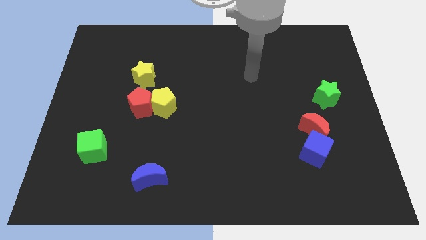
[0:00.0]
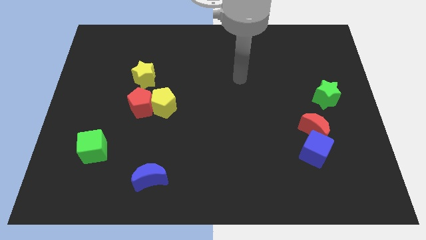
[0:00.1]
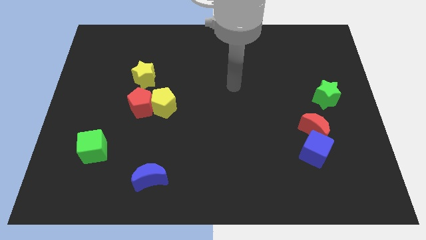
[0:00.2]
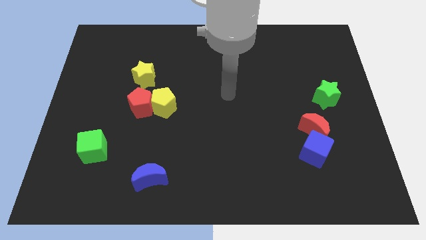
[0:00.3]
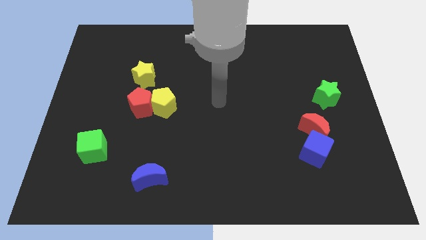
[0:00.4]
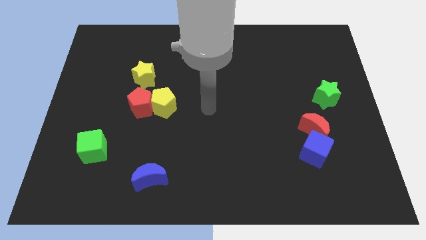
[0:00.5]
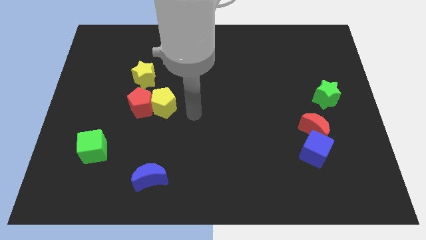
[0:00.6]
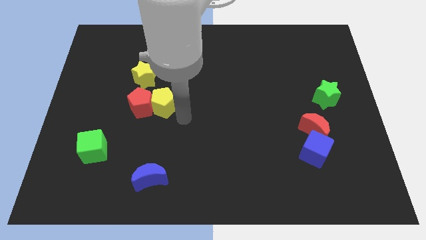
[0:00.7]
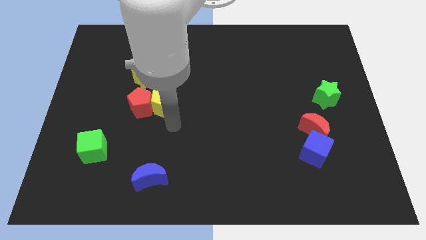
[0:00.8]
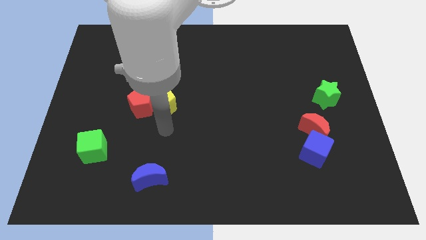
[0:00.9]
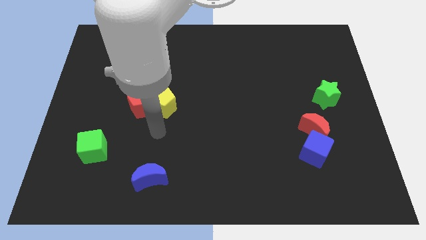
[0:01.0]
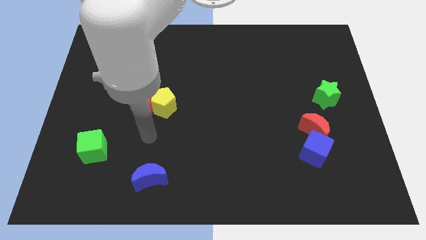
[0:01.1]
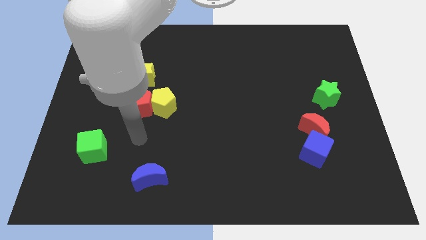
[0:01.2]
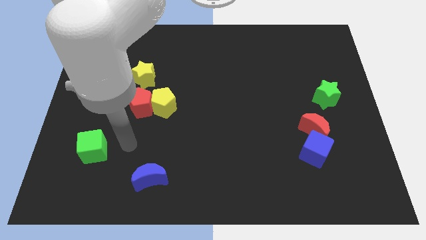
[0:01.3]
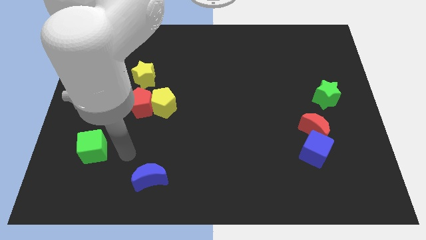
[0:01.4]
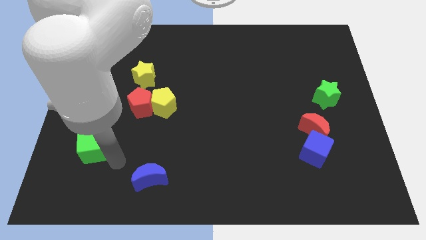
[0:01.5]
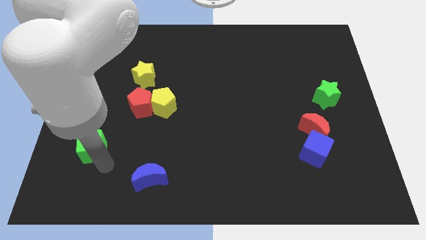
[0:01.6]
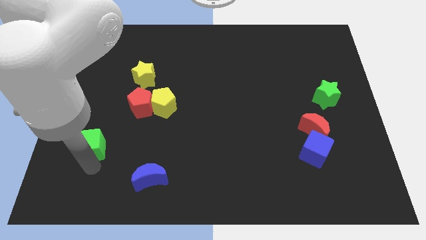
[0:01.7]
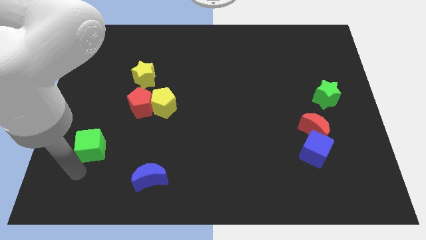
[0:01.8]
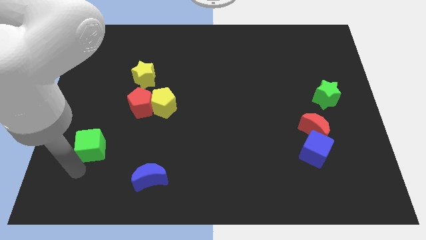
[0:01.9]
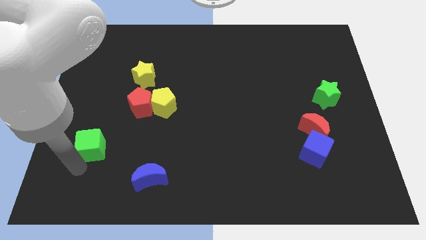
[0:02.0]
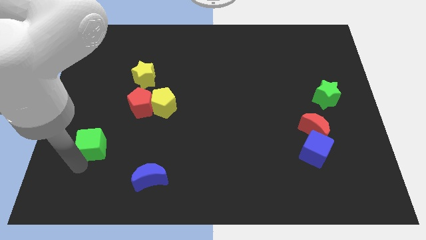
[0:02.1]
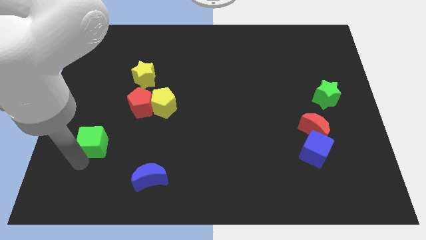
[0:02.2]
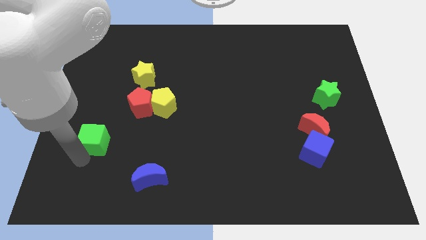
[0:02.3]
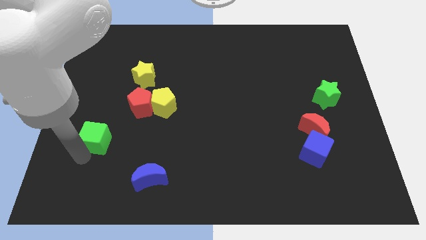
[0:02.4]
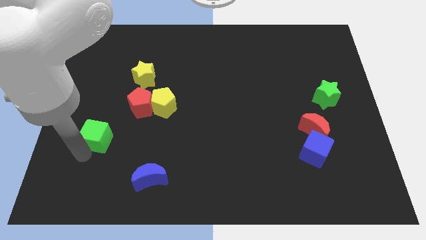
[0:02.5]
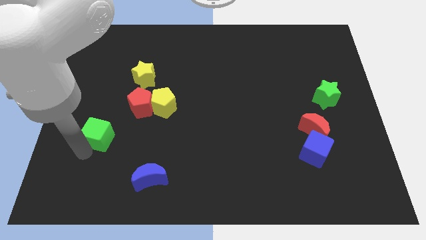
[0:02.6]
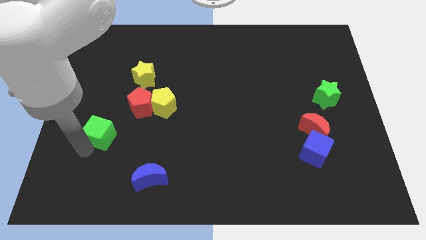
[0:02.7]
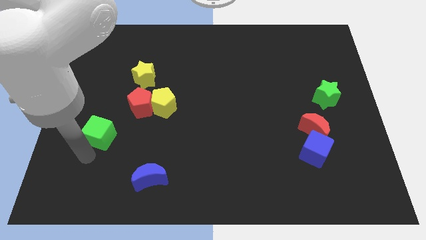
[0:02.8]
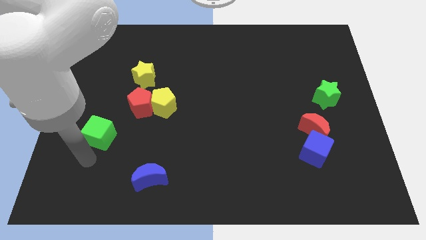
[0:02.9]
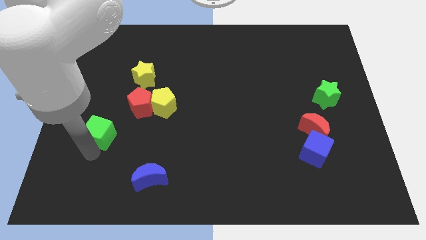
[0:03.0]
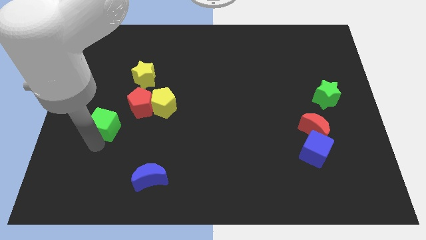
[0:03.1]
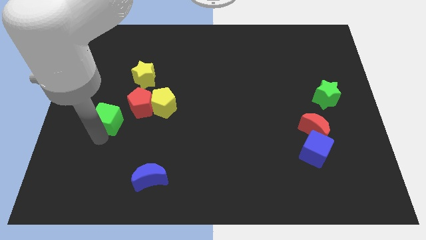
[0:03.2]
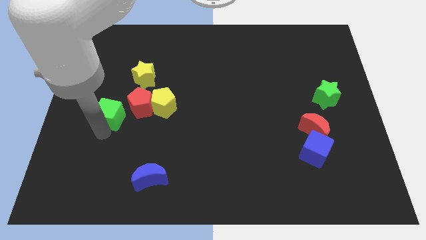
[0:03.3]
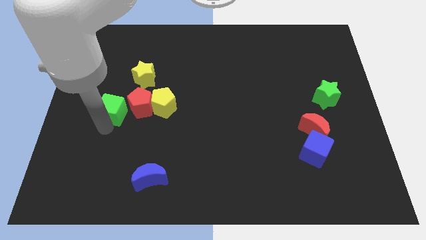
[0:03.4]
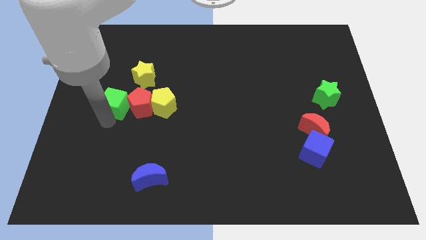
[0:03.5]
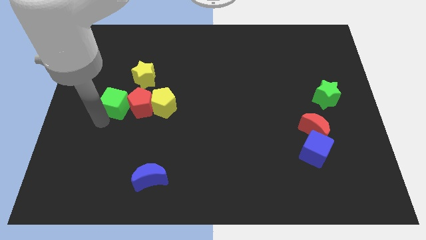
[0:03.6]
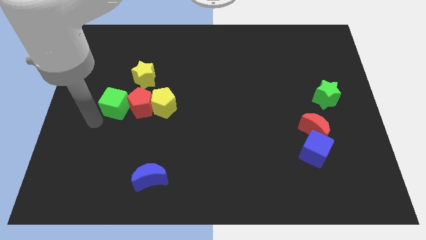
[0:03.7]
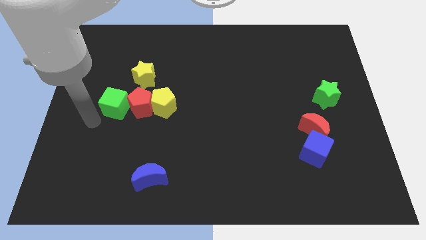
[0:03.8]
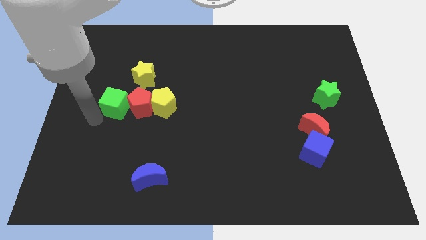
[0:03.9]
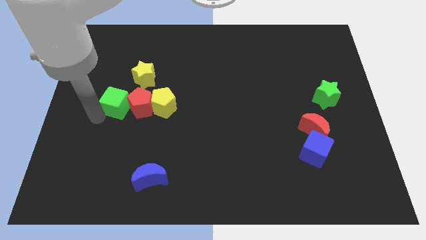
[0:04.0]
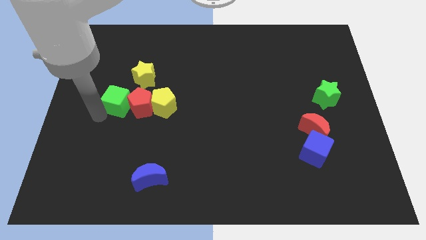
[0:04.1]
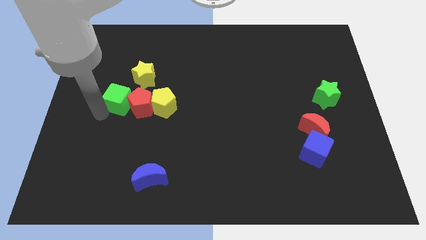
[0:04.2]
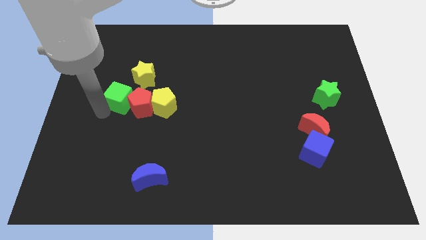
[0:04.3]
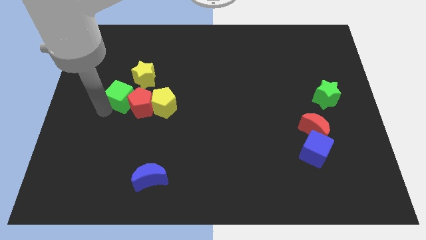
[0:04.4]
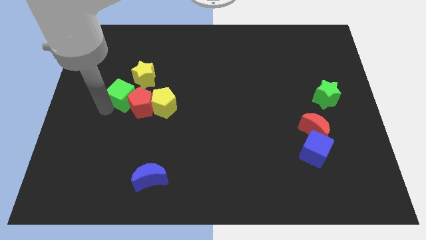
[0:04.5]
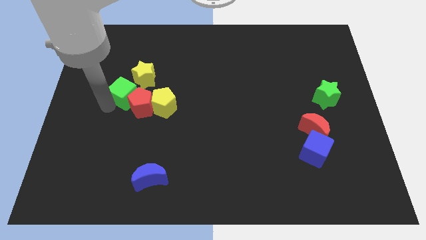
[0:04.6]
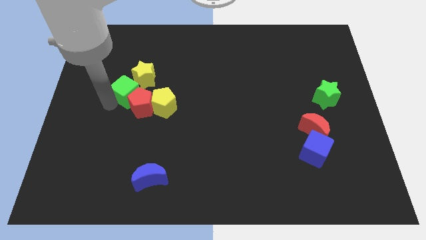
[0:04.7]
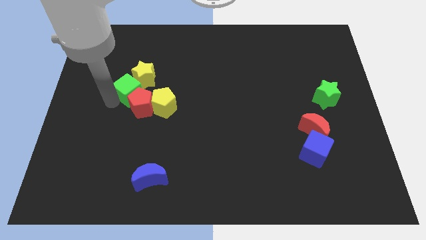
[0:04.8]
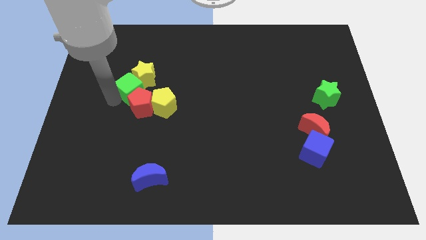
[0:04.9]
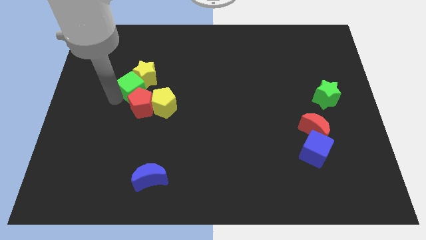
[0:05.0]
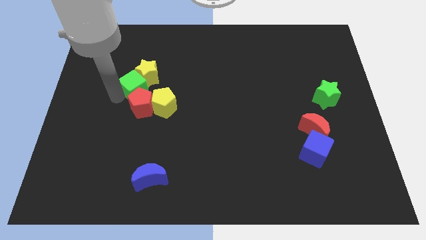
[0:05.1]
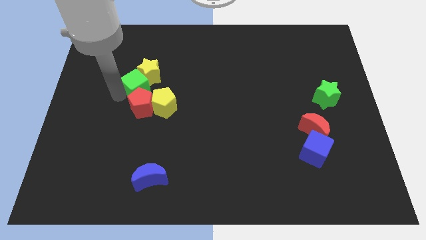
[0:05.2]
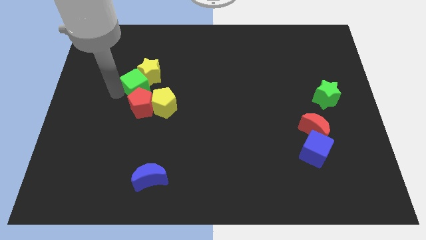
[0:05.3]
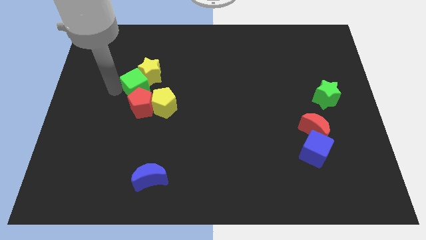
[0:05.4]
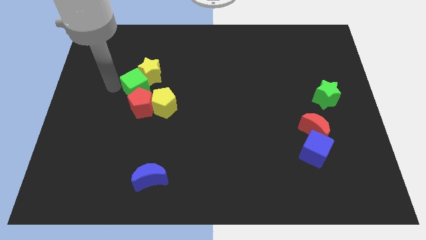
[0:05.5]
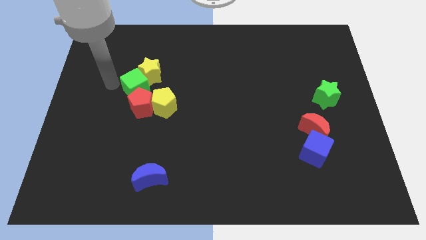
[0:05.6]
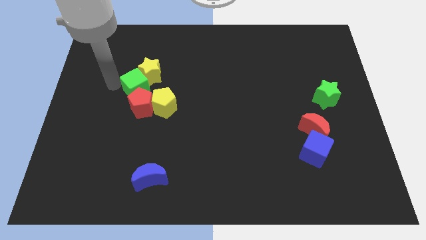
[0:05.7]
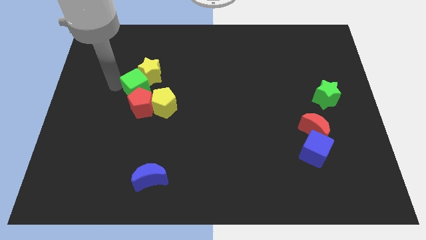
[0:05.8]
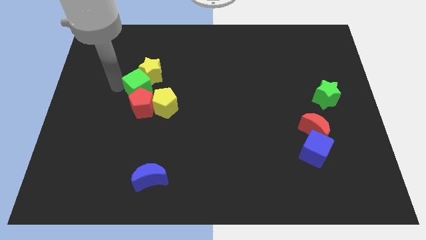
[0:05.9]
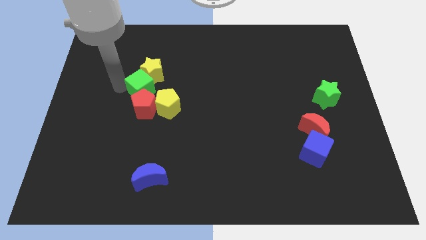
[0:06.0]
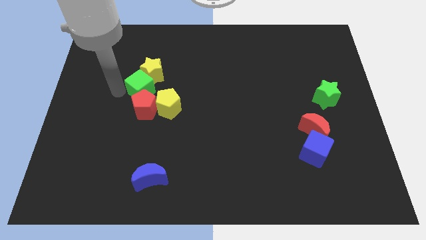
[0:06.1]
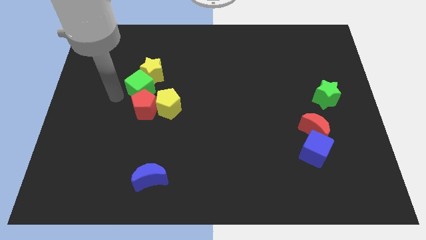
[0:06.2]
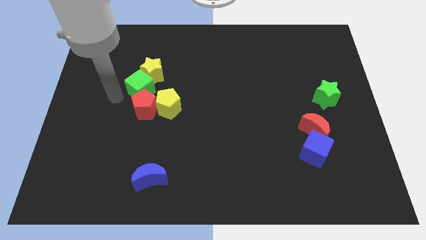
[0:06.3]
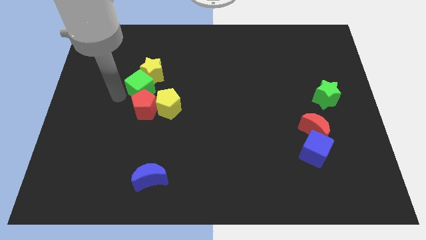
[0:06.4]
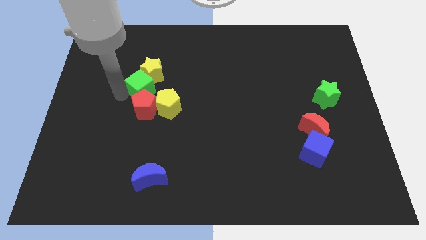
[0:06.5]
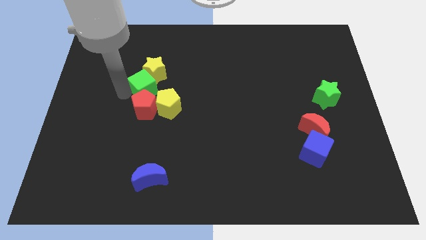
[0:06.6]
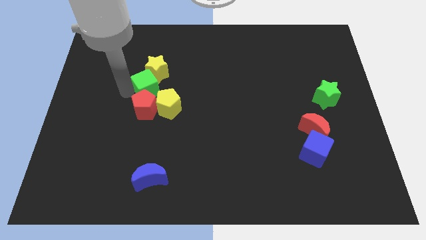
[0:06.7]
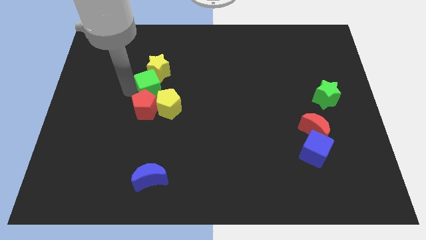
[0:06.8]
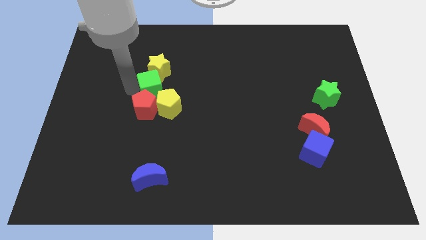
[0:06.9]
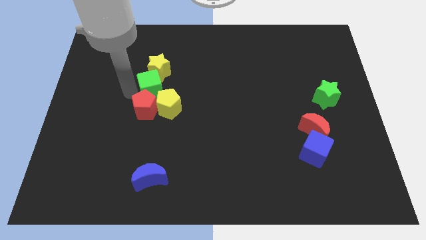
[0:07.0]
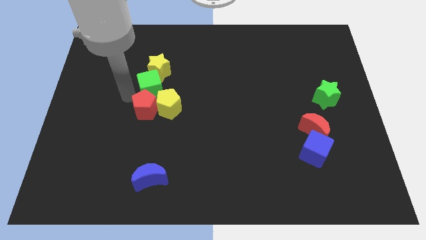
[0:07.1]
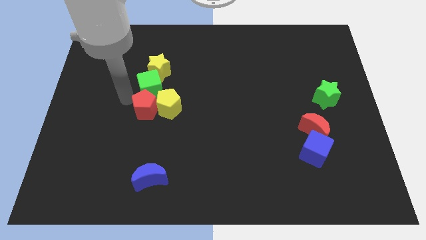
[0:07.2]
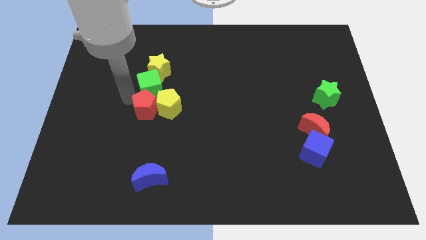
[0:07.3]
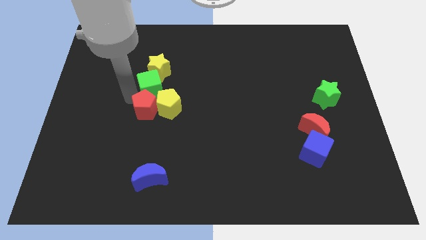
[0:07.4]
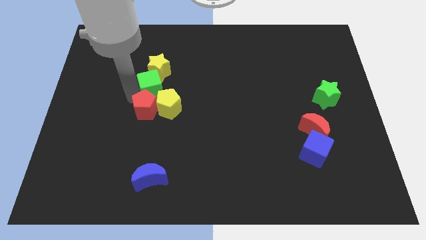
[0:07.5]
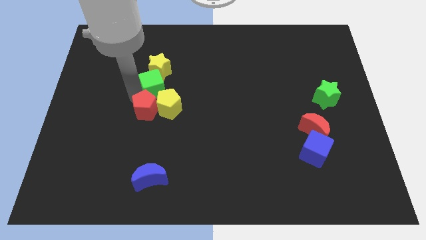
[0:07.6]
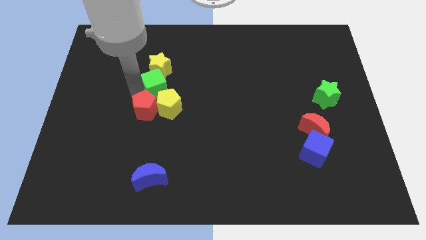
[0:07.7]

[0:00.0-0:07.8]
slide the green cube diagonally up and to the right

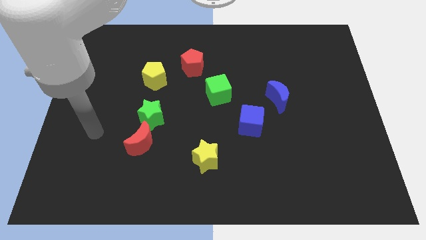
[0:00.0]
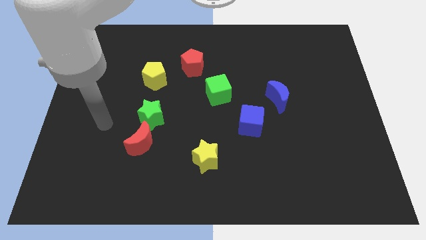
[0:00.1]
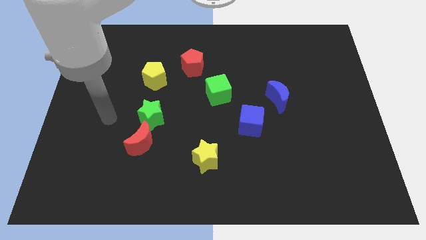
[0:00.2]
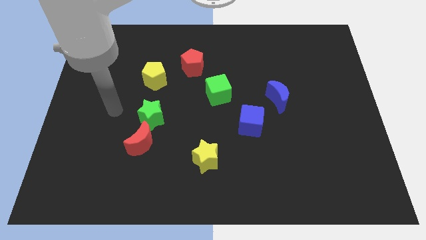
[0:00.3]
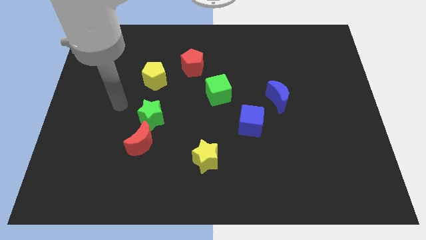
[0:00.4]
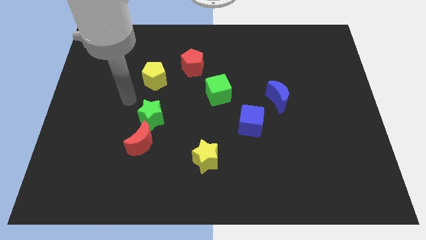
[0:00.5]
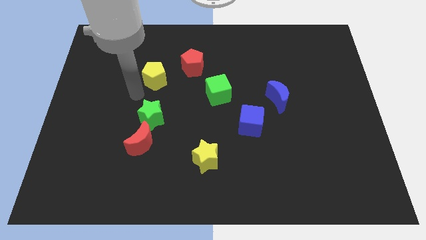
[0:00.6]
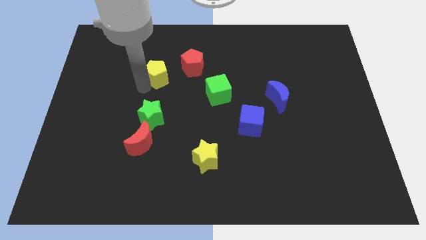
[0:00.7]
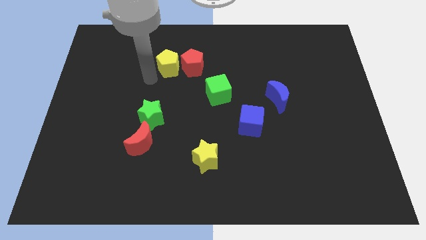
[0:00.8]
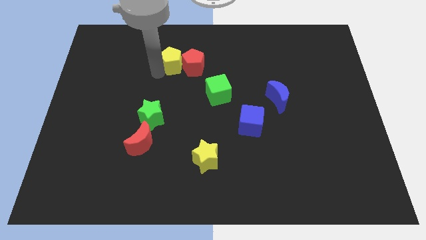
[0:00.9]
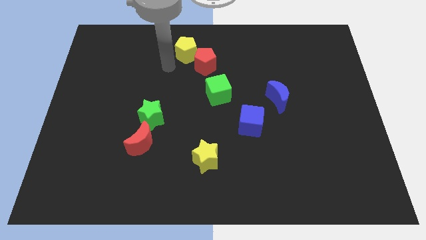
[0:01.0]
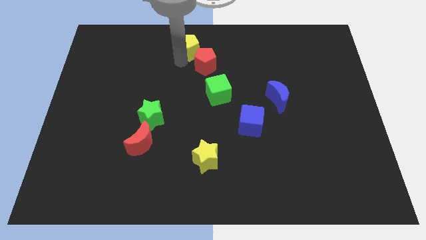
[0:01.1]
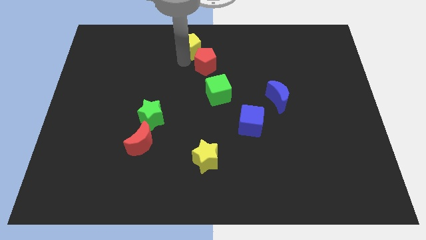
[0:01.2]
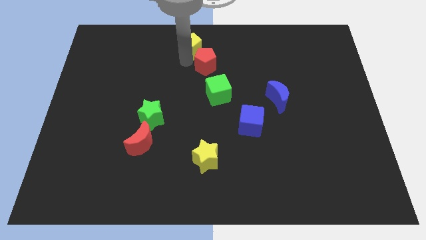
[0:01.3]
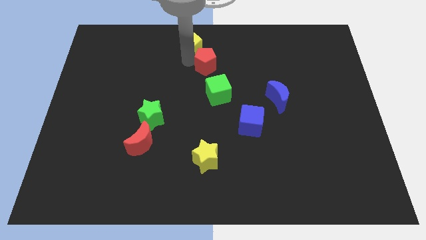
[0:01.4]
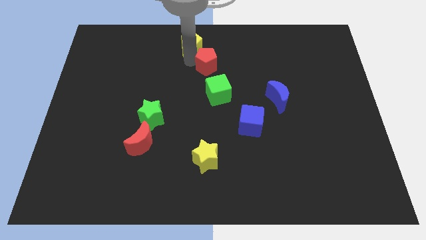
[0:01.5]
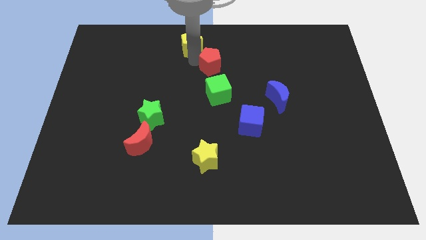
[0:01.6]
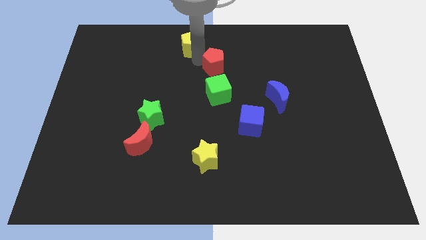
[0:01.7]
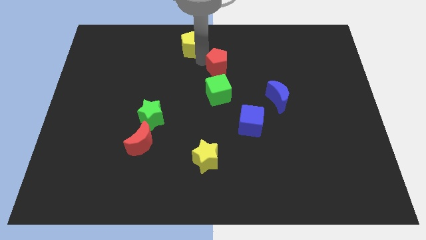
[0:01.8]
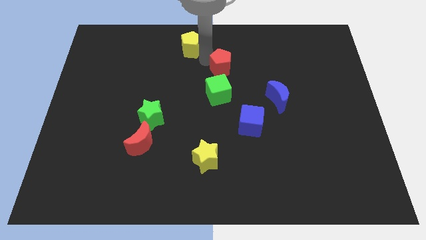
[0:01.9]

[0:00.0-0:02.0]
move the red pentagon a bit right
